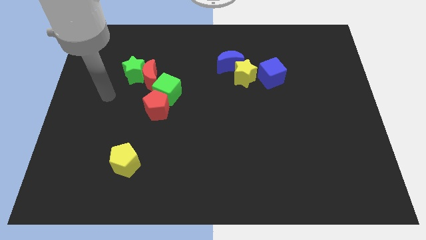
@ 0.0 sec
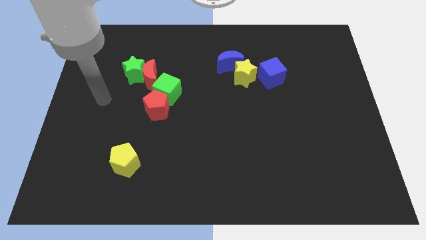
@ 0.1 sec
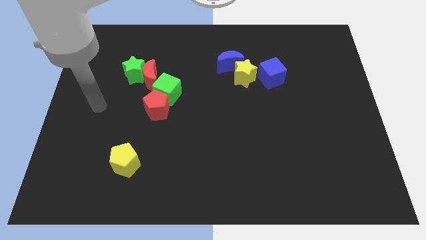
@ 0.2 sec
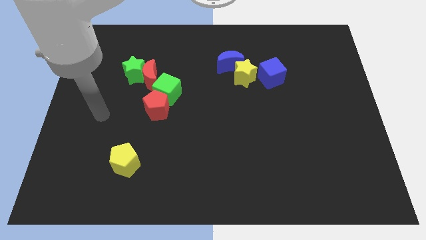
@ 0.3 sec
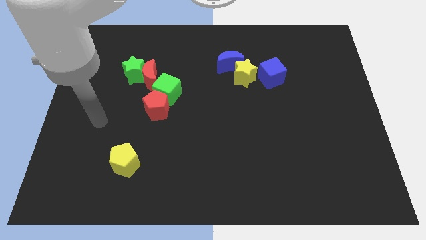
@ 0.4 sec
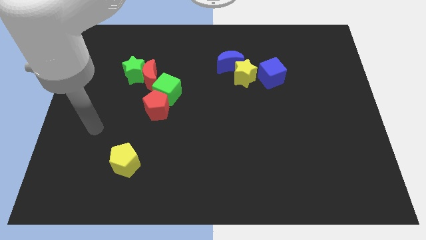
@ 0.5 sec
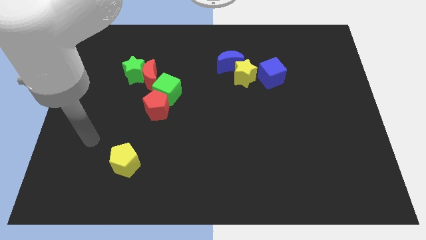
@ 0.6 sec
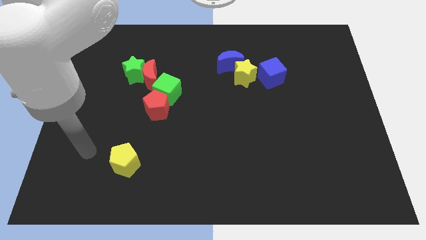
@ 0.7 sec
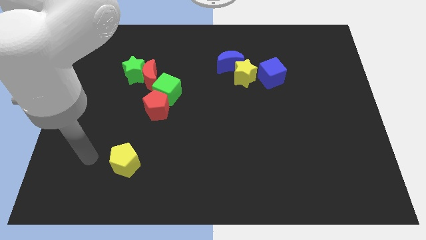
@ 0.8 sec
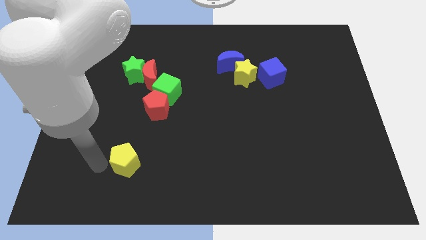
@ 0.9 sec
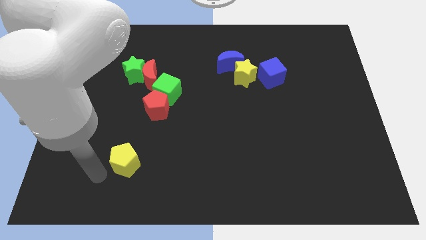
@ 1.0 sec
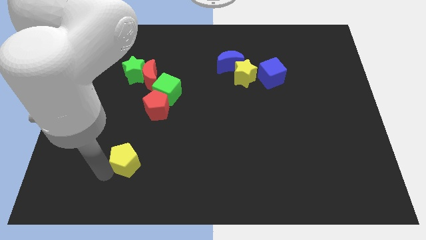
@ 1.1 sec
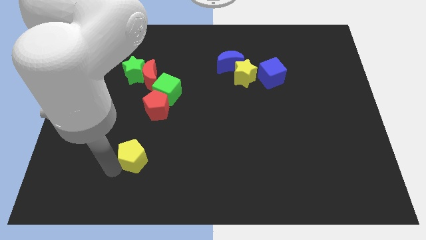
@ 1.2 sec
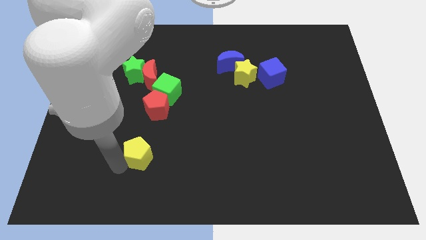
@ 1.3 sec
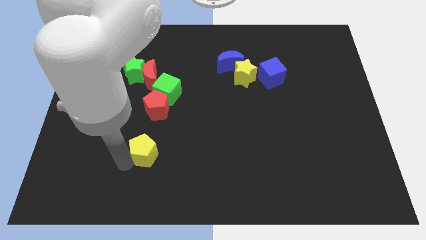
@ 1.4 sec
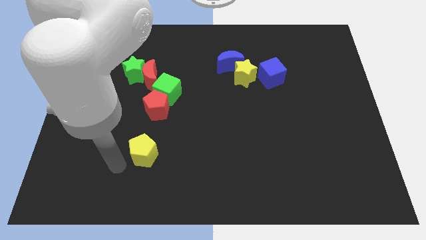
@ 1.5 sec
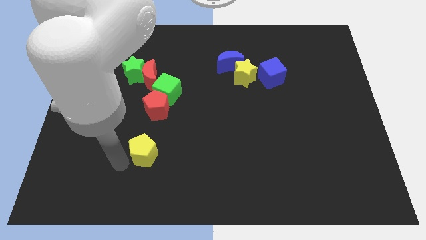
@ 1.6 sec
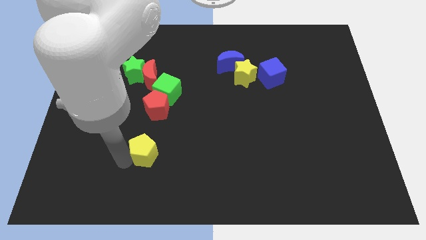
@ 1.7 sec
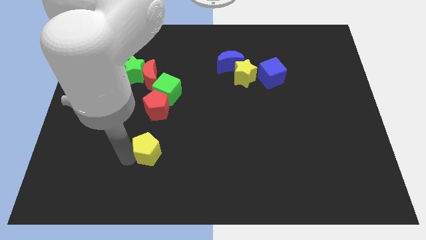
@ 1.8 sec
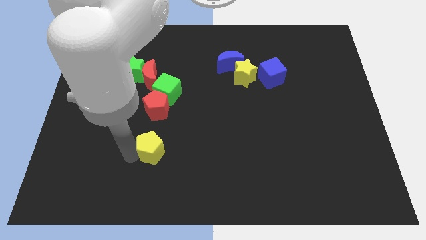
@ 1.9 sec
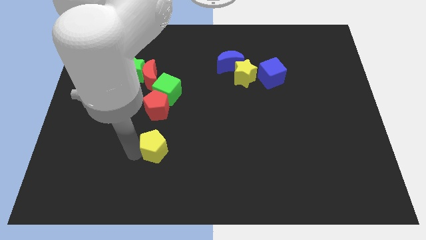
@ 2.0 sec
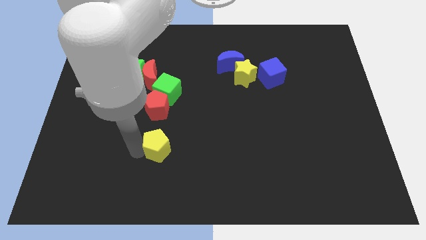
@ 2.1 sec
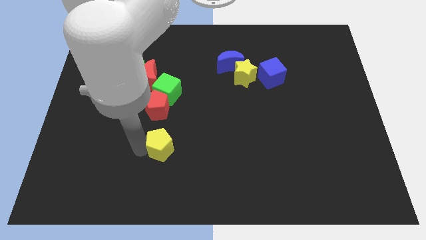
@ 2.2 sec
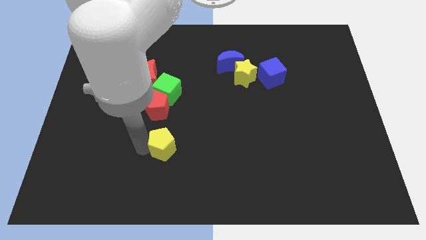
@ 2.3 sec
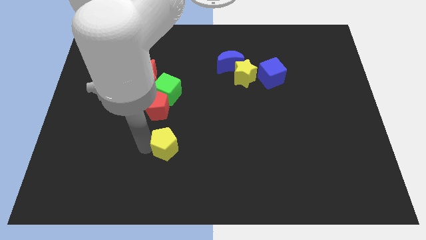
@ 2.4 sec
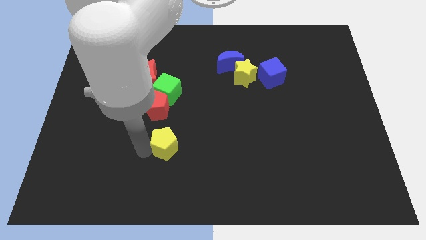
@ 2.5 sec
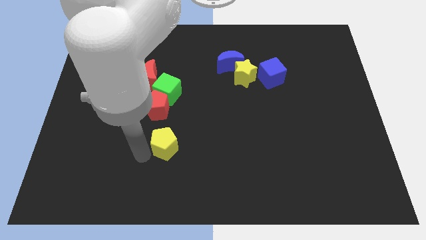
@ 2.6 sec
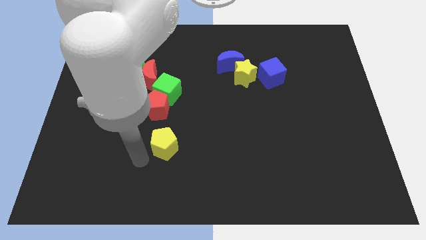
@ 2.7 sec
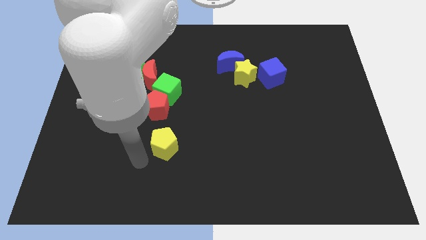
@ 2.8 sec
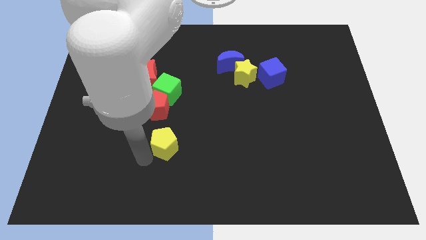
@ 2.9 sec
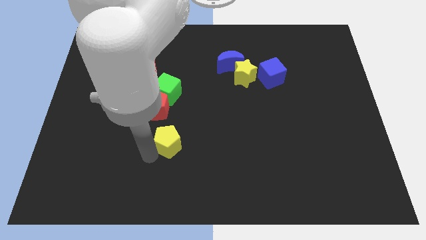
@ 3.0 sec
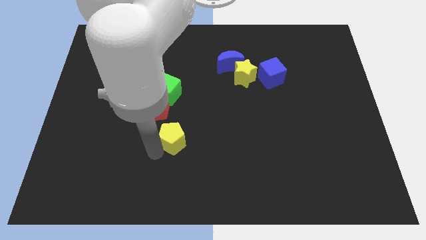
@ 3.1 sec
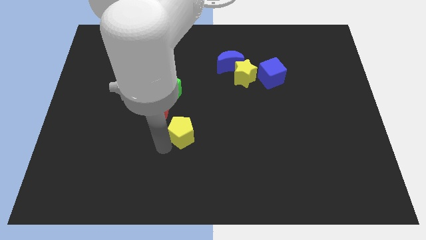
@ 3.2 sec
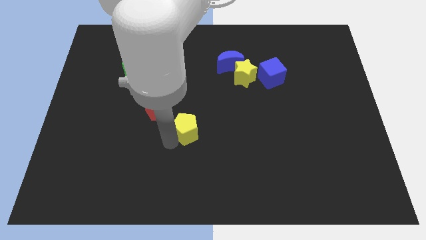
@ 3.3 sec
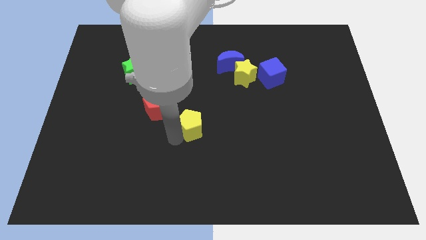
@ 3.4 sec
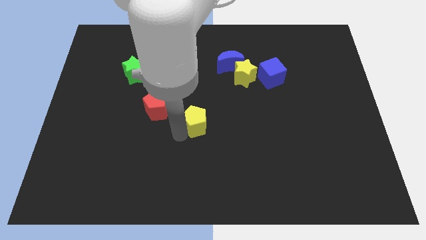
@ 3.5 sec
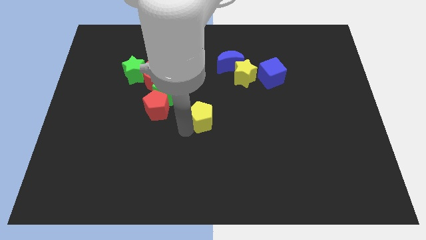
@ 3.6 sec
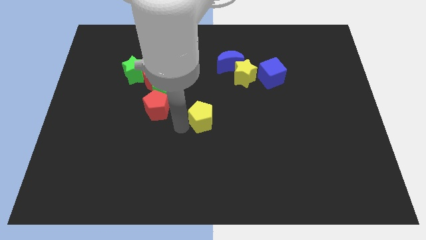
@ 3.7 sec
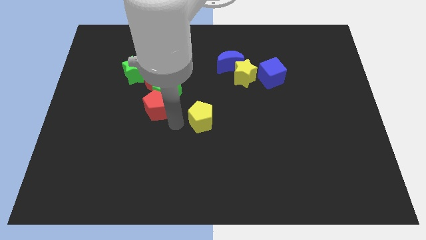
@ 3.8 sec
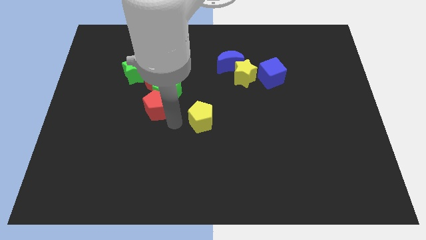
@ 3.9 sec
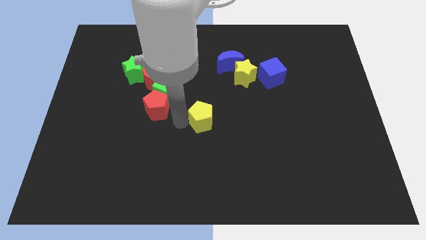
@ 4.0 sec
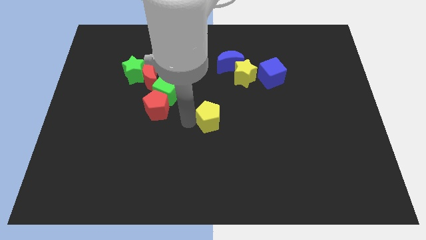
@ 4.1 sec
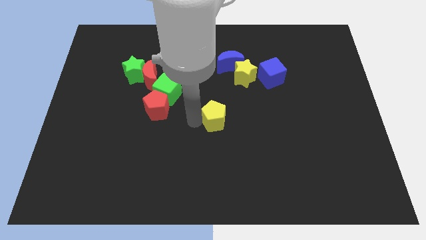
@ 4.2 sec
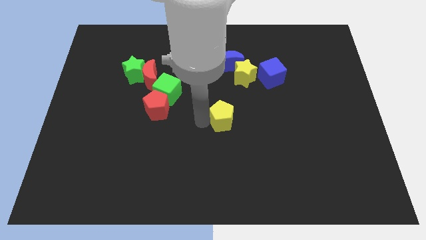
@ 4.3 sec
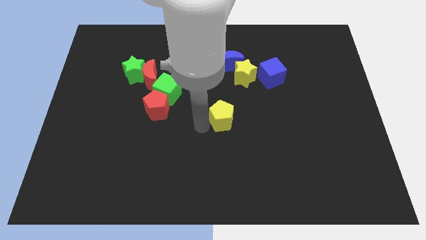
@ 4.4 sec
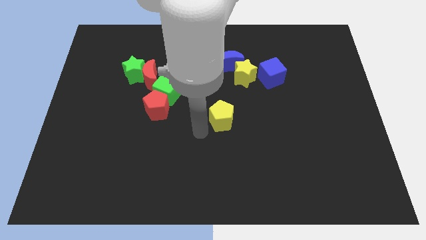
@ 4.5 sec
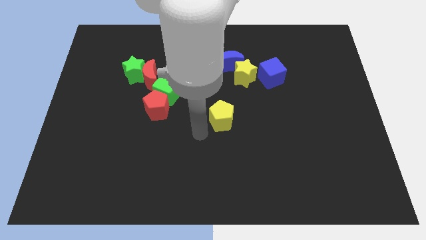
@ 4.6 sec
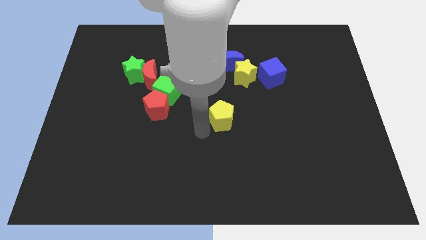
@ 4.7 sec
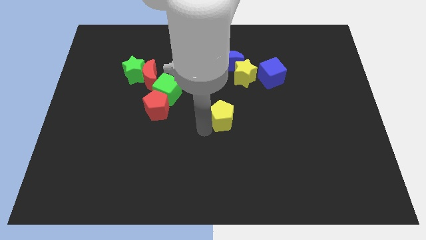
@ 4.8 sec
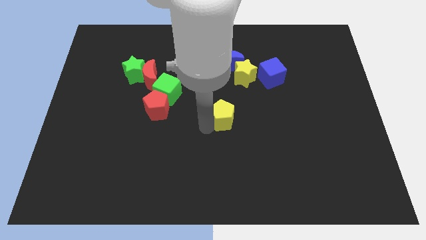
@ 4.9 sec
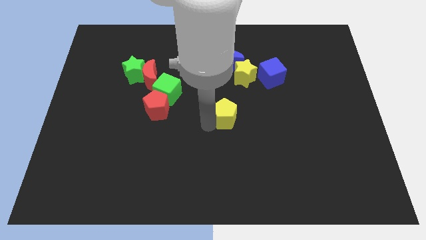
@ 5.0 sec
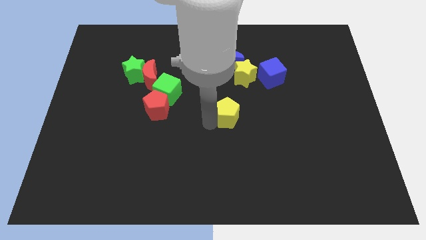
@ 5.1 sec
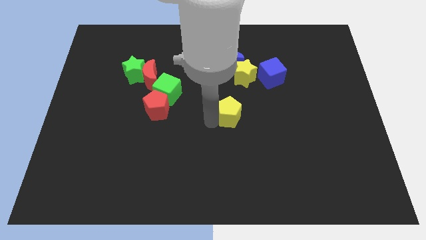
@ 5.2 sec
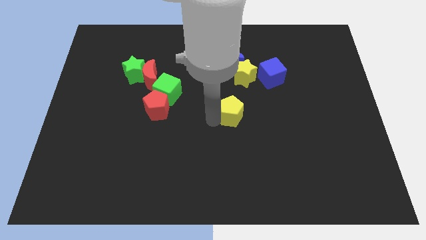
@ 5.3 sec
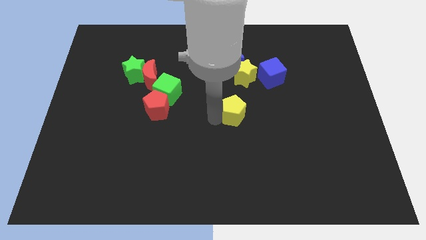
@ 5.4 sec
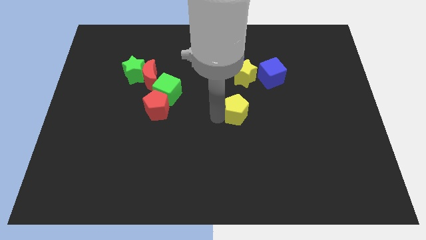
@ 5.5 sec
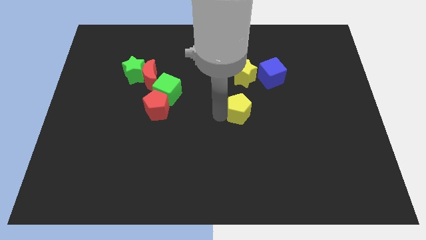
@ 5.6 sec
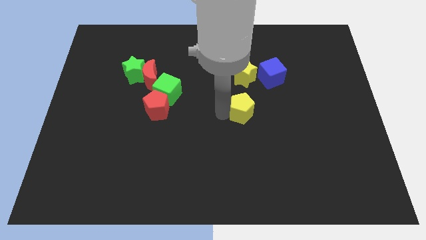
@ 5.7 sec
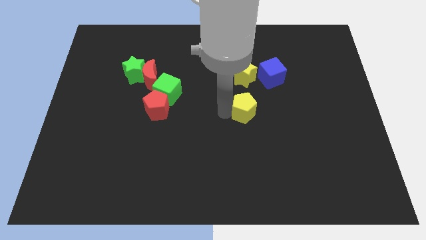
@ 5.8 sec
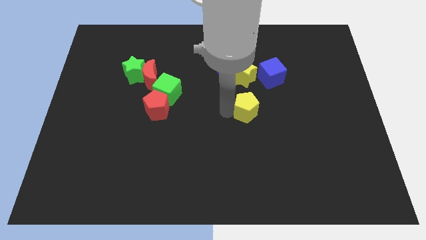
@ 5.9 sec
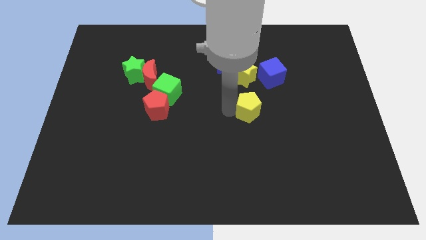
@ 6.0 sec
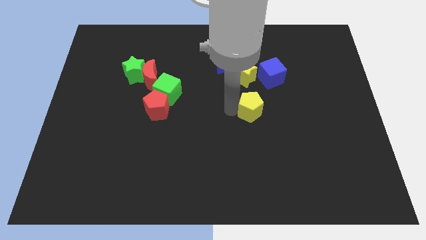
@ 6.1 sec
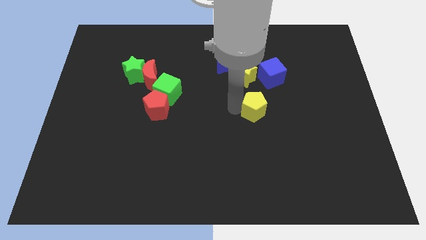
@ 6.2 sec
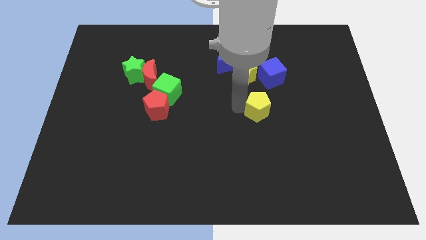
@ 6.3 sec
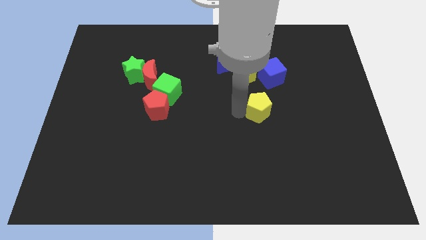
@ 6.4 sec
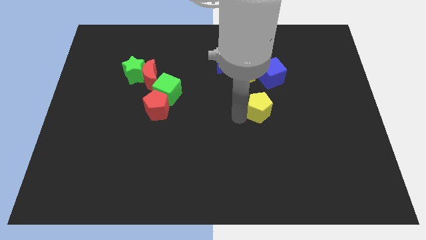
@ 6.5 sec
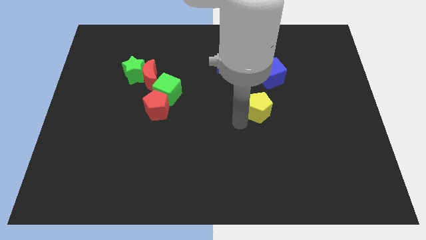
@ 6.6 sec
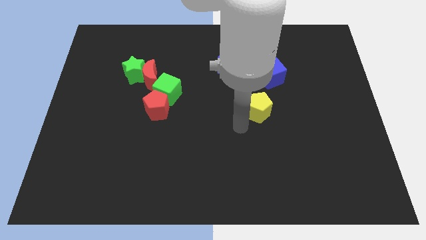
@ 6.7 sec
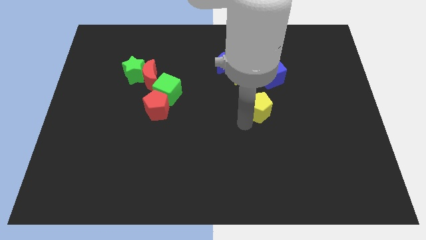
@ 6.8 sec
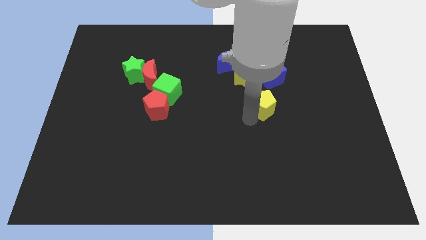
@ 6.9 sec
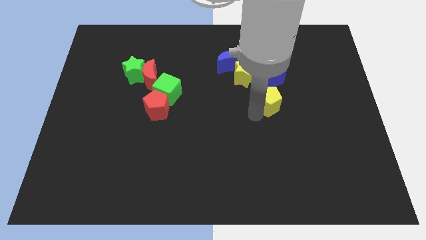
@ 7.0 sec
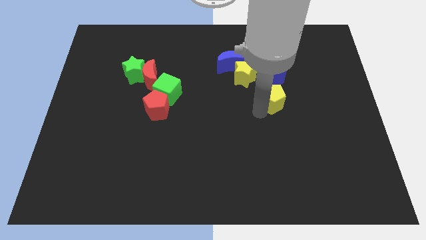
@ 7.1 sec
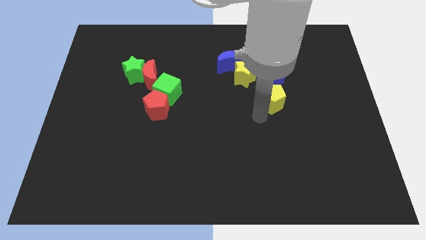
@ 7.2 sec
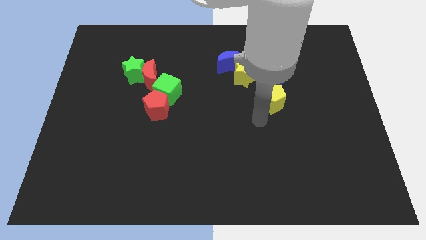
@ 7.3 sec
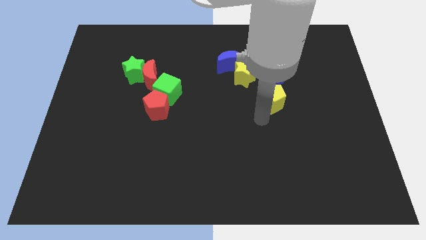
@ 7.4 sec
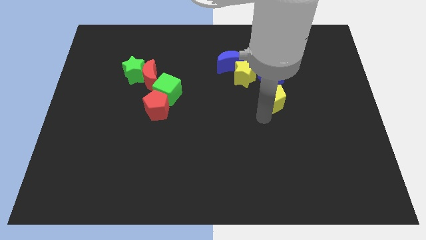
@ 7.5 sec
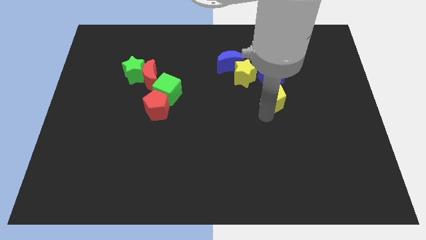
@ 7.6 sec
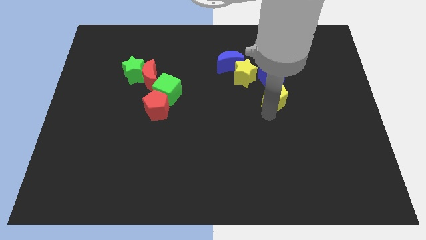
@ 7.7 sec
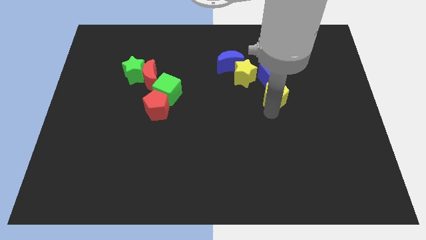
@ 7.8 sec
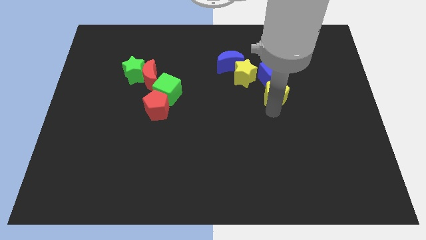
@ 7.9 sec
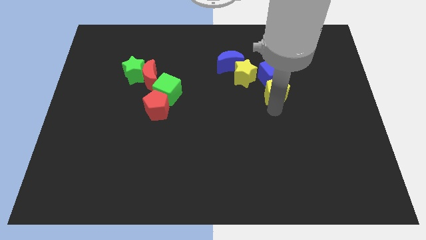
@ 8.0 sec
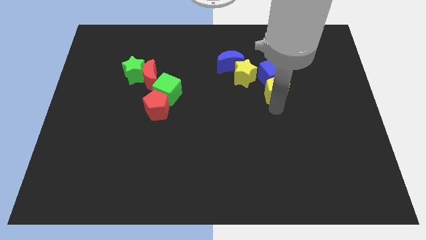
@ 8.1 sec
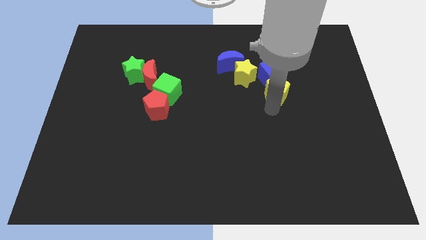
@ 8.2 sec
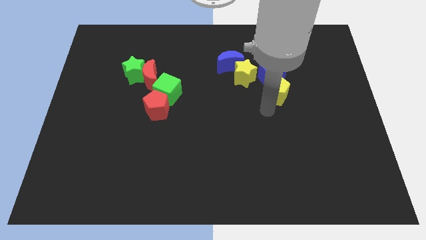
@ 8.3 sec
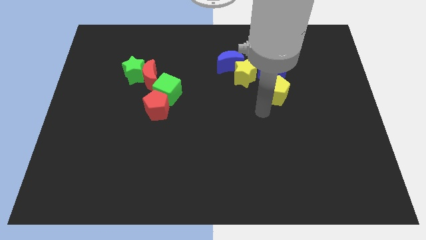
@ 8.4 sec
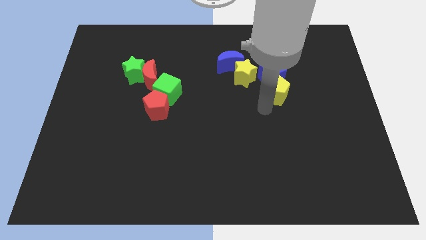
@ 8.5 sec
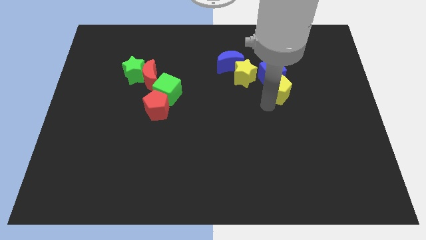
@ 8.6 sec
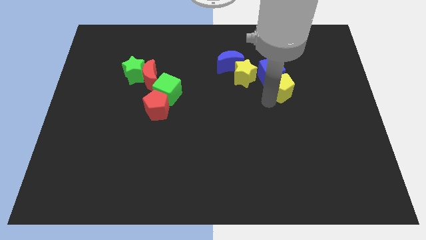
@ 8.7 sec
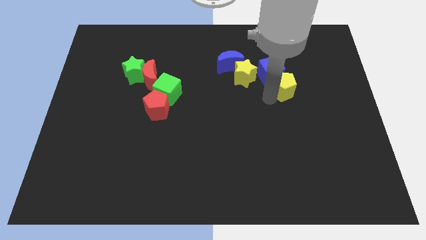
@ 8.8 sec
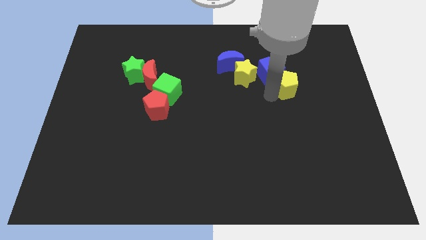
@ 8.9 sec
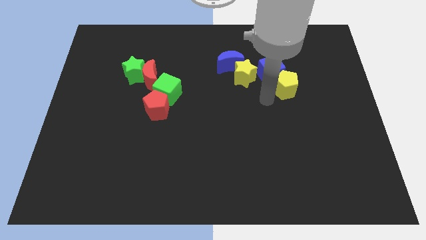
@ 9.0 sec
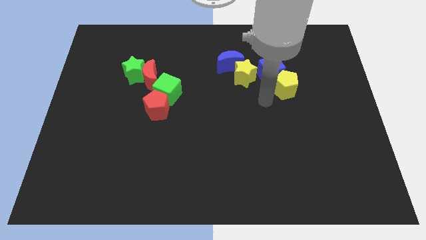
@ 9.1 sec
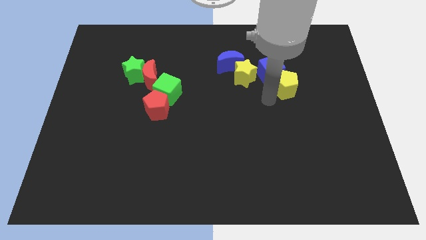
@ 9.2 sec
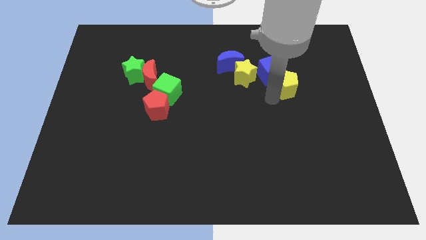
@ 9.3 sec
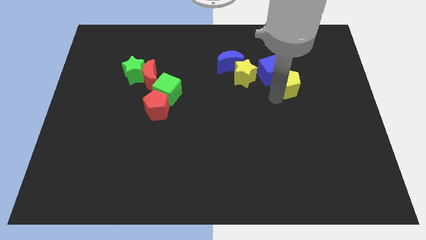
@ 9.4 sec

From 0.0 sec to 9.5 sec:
put the yellow pentagon just right of the blue cube
